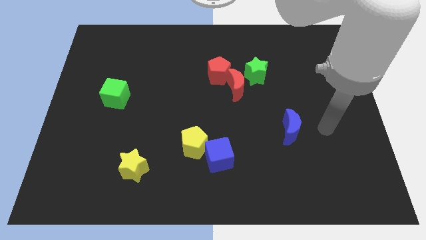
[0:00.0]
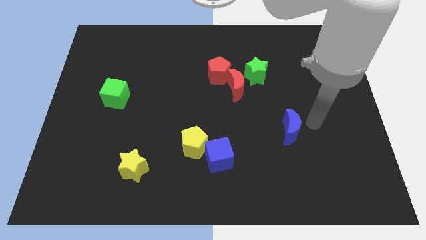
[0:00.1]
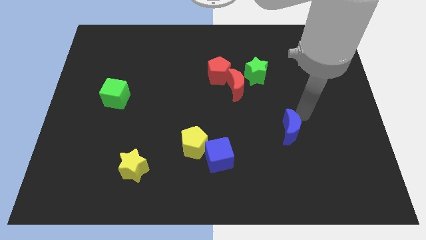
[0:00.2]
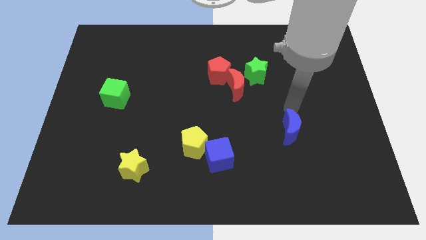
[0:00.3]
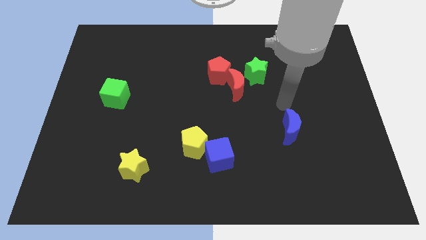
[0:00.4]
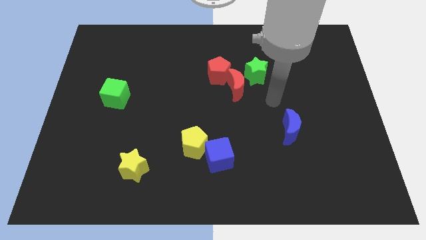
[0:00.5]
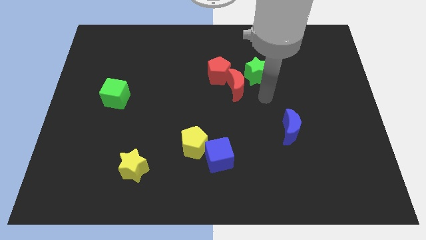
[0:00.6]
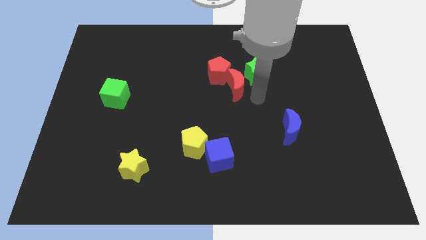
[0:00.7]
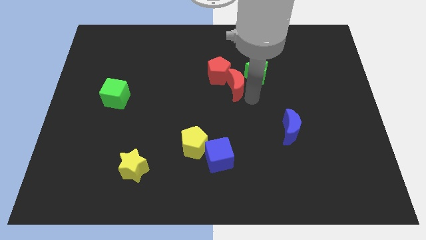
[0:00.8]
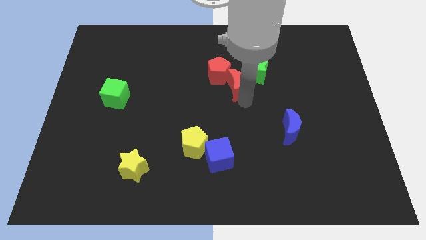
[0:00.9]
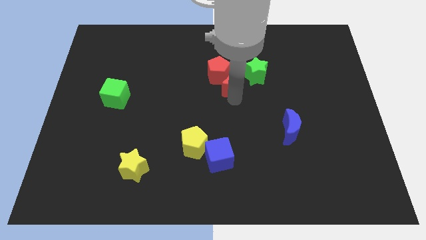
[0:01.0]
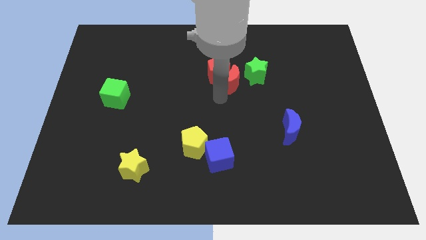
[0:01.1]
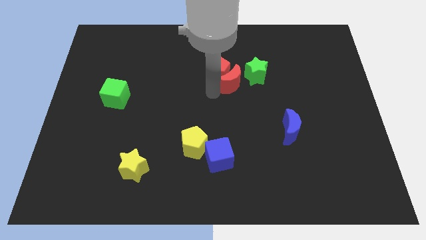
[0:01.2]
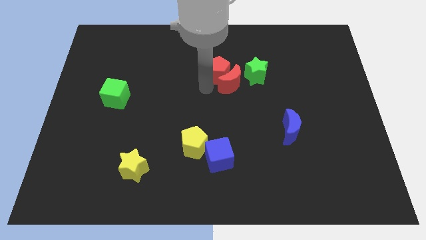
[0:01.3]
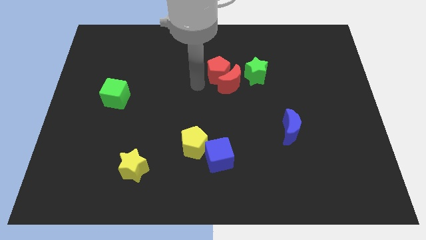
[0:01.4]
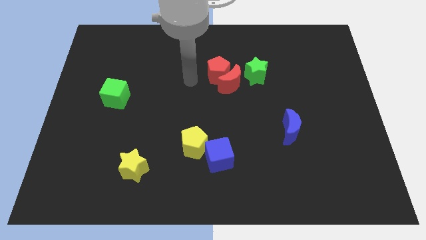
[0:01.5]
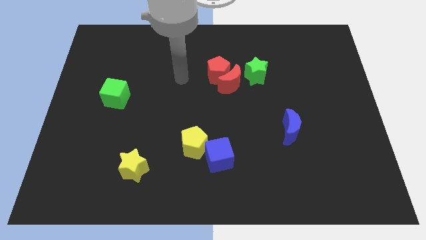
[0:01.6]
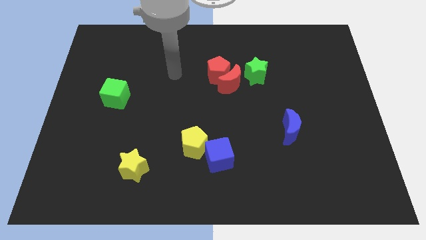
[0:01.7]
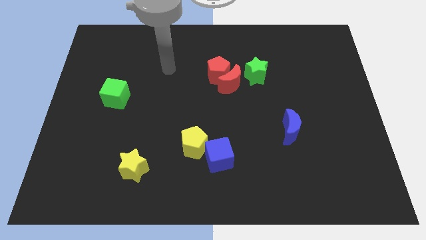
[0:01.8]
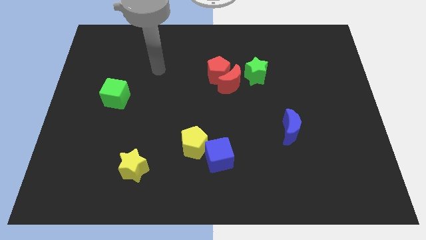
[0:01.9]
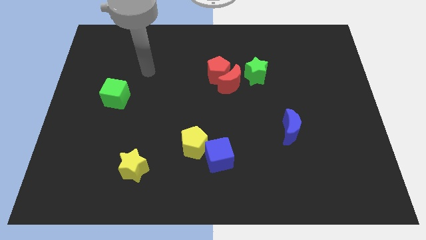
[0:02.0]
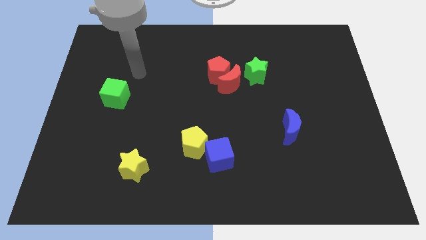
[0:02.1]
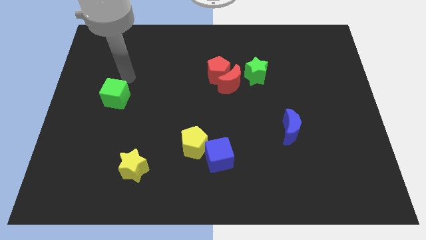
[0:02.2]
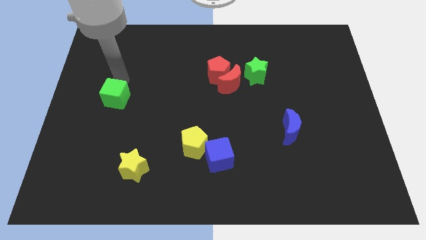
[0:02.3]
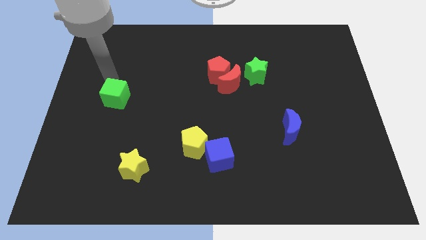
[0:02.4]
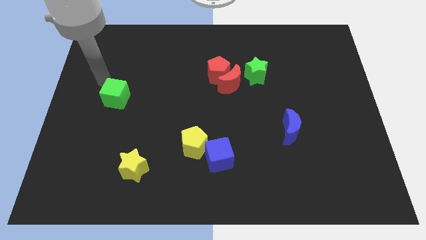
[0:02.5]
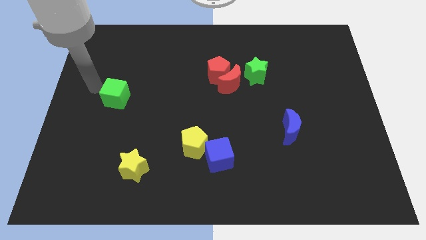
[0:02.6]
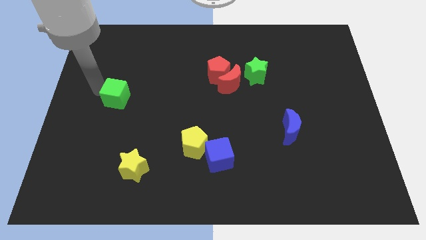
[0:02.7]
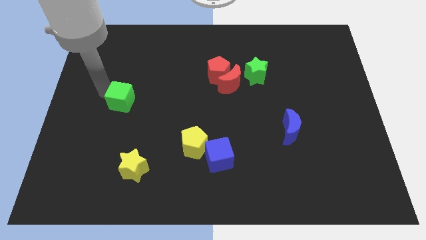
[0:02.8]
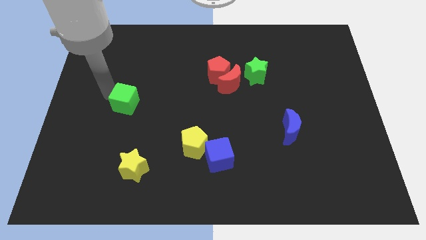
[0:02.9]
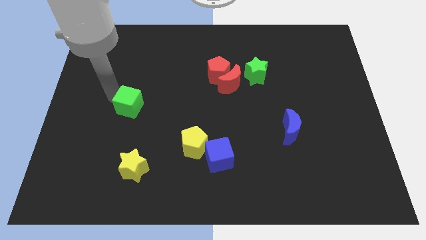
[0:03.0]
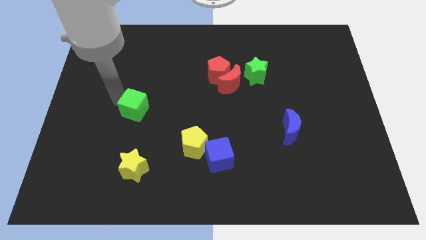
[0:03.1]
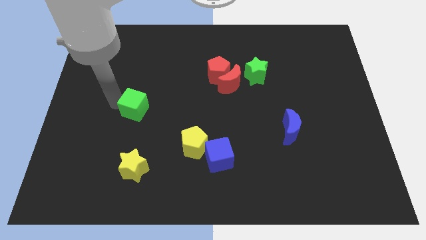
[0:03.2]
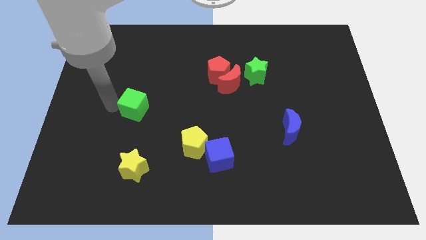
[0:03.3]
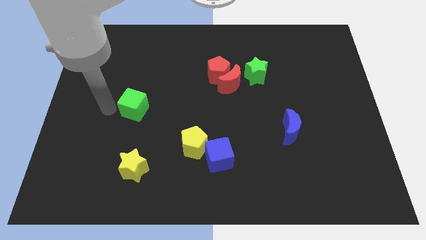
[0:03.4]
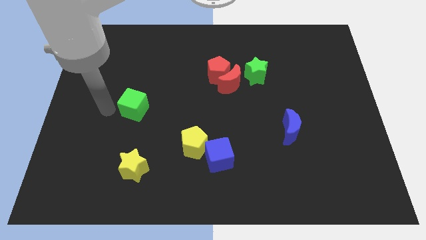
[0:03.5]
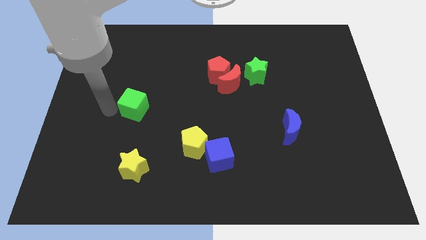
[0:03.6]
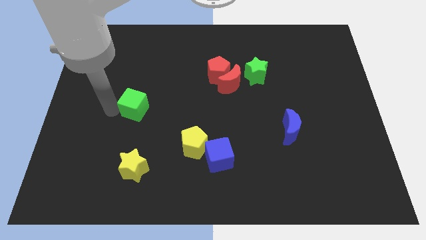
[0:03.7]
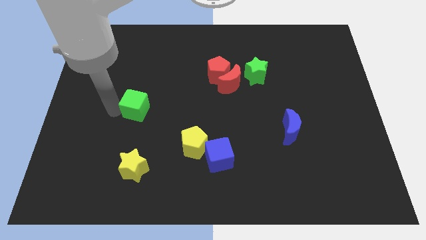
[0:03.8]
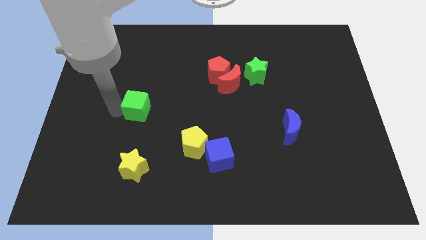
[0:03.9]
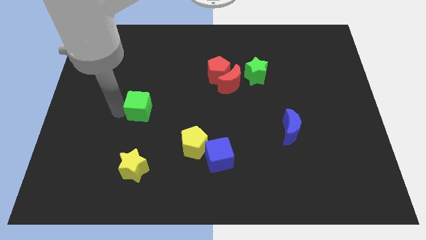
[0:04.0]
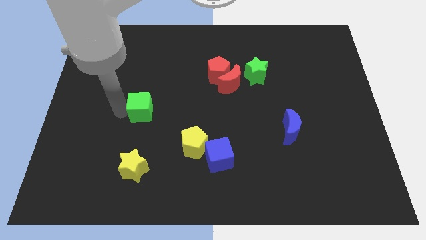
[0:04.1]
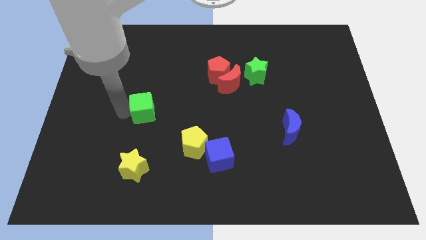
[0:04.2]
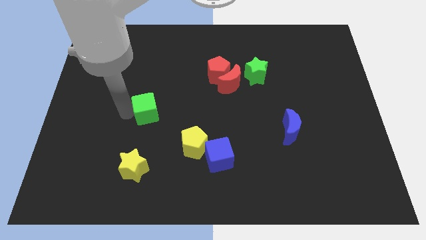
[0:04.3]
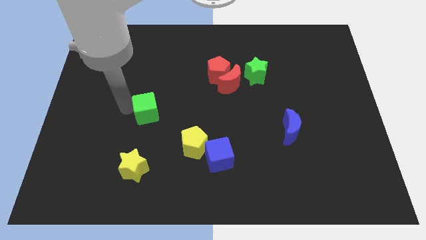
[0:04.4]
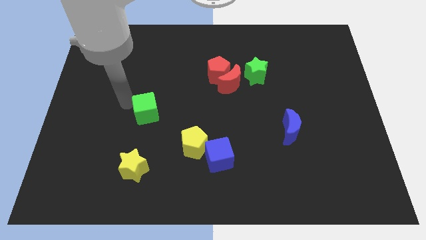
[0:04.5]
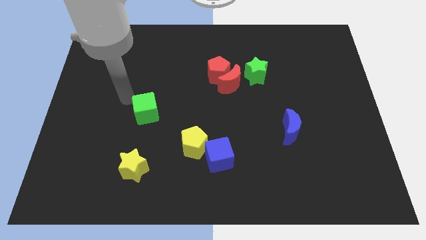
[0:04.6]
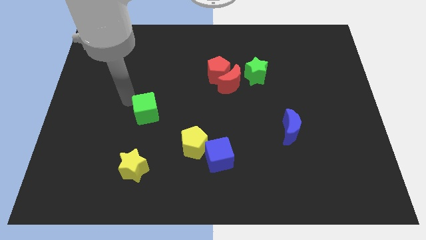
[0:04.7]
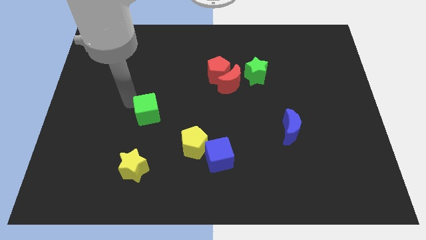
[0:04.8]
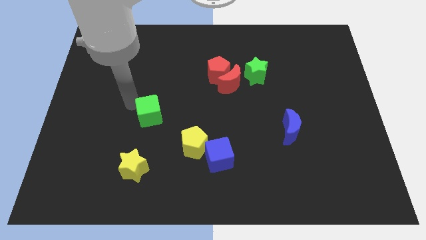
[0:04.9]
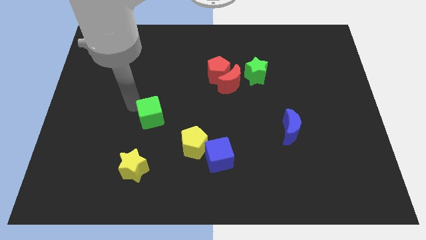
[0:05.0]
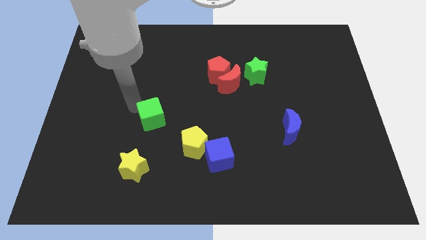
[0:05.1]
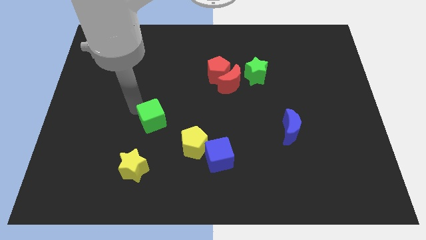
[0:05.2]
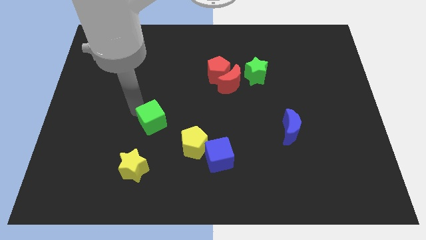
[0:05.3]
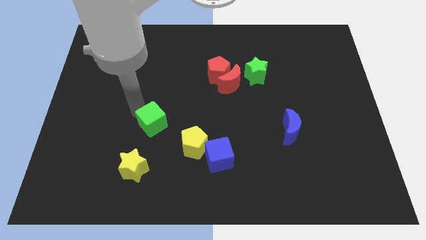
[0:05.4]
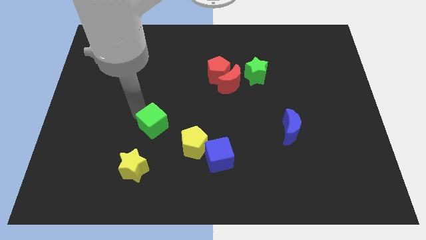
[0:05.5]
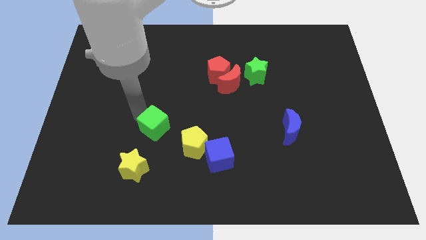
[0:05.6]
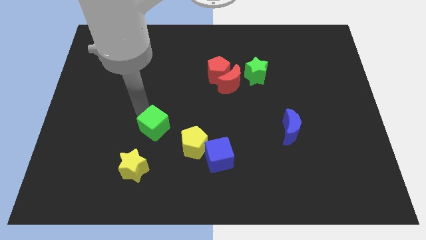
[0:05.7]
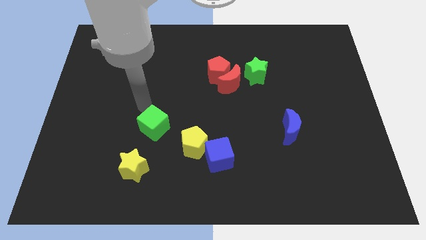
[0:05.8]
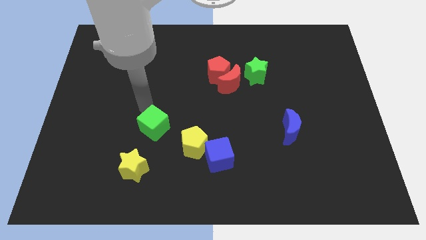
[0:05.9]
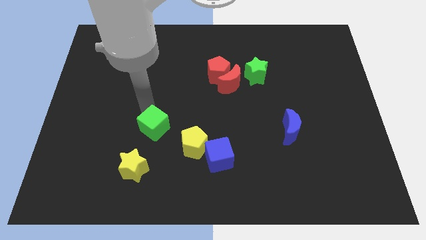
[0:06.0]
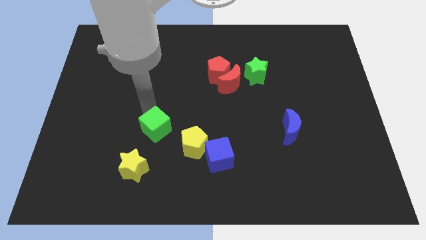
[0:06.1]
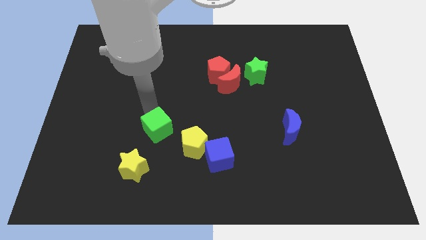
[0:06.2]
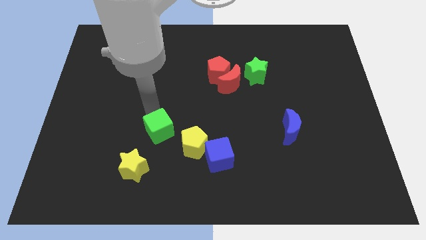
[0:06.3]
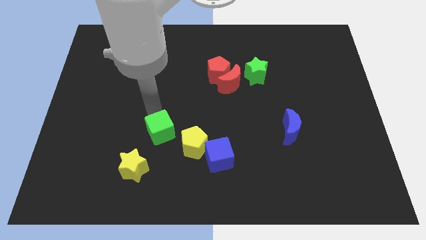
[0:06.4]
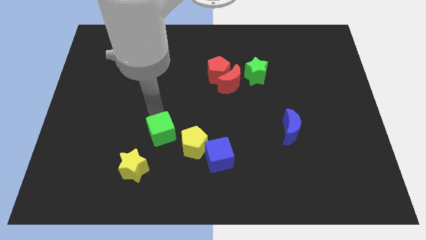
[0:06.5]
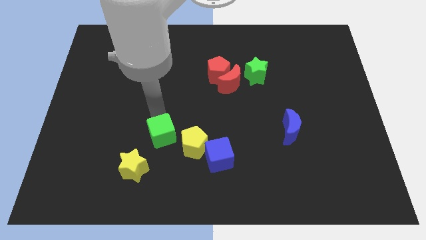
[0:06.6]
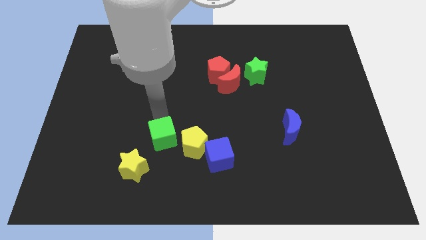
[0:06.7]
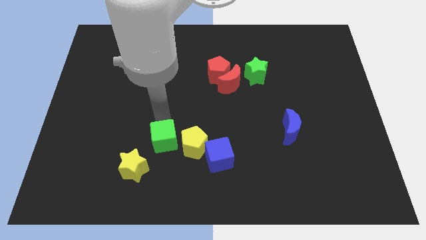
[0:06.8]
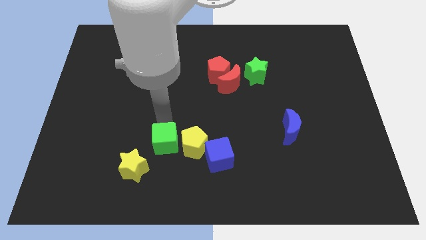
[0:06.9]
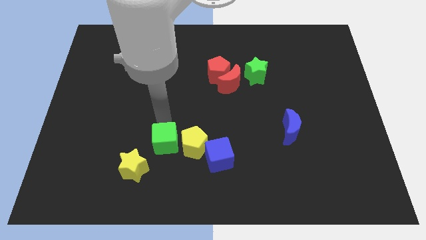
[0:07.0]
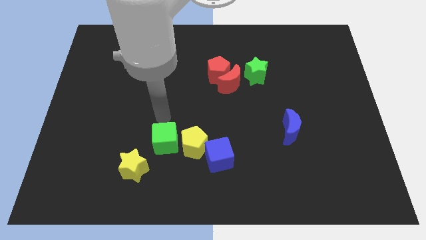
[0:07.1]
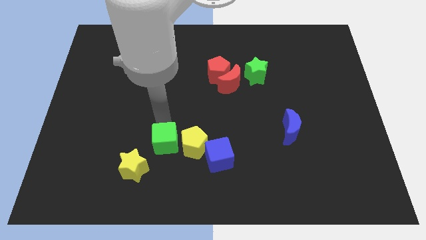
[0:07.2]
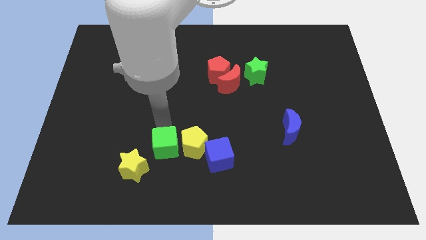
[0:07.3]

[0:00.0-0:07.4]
move the green cube diagonally down and to the left of the yellow pentagon
